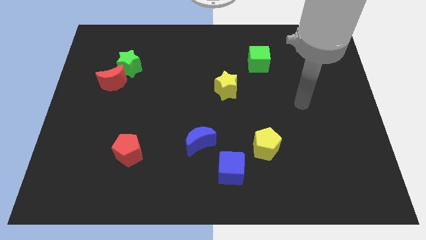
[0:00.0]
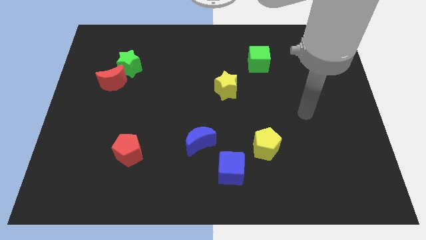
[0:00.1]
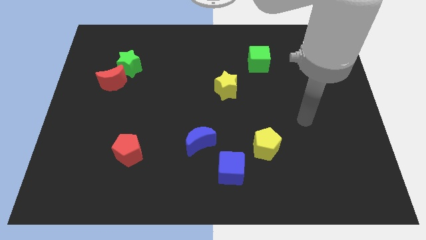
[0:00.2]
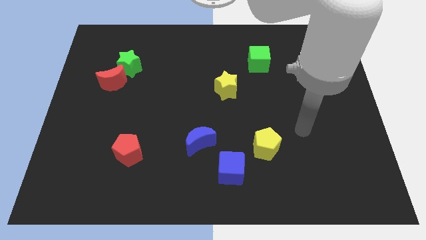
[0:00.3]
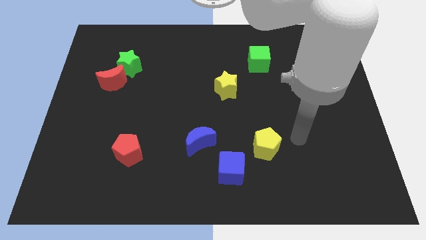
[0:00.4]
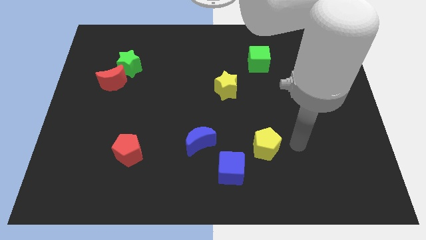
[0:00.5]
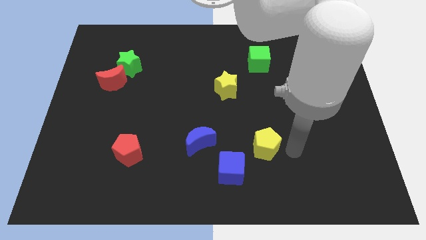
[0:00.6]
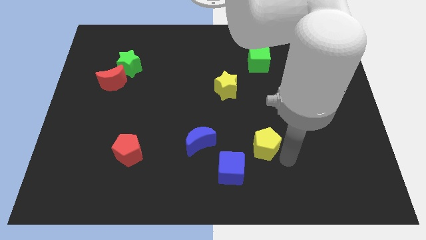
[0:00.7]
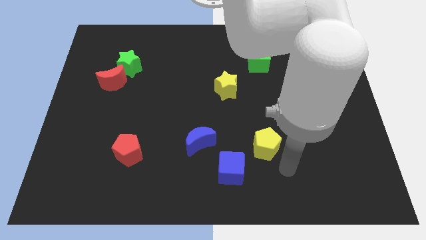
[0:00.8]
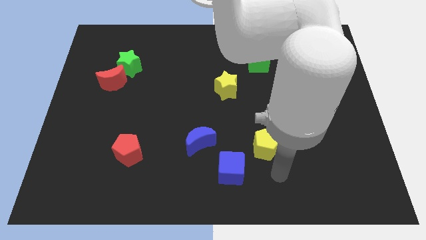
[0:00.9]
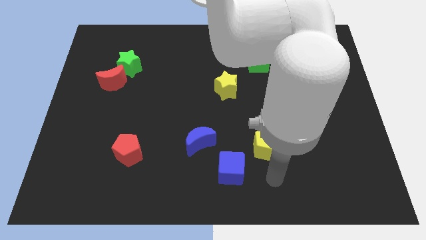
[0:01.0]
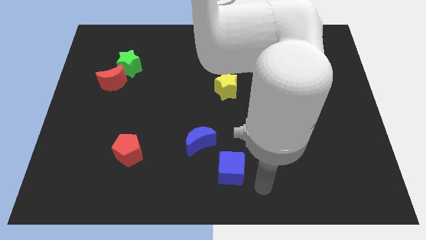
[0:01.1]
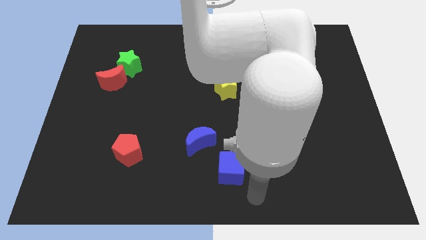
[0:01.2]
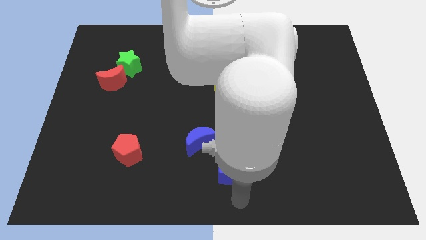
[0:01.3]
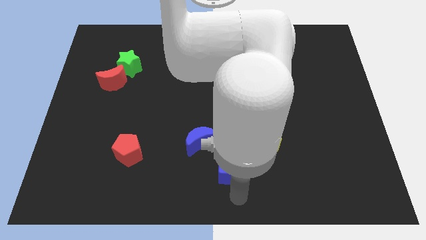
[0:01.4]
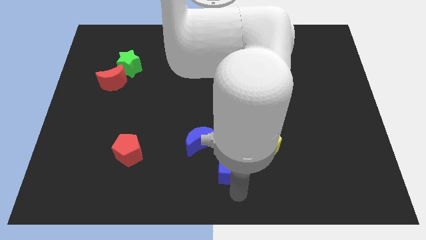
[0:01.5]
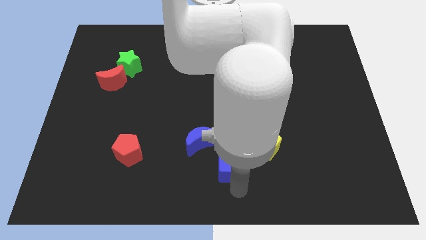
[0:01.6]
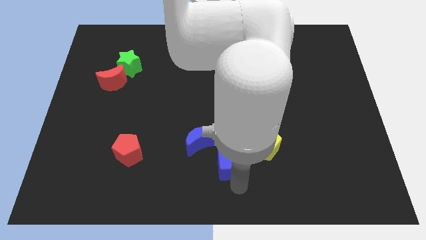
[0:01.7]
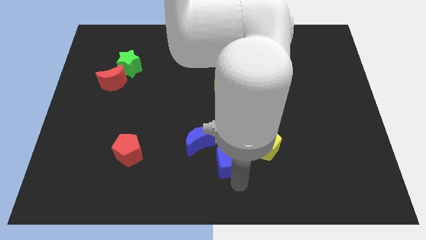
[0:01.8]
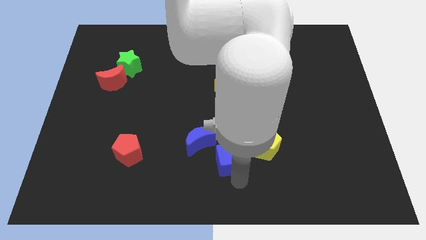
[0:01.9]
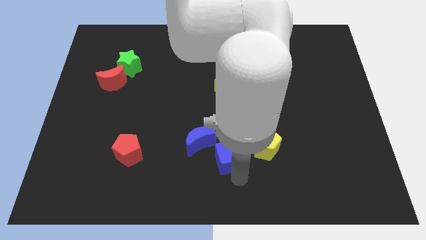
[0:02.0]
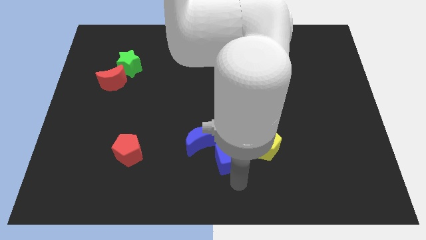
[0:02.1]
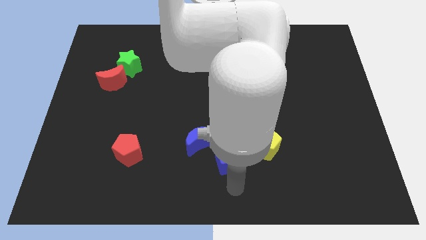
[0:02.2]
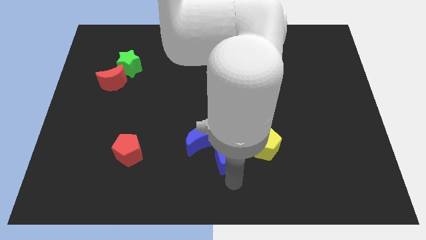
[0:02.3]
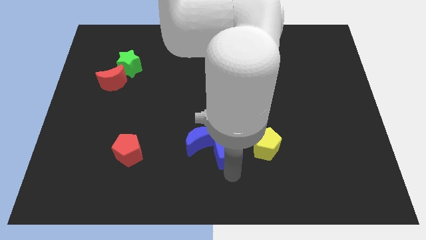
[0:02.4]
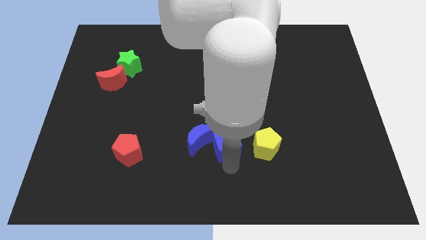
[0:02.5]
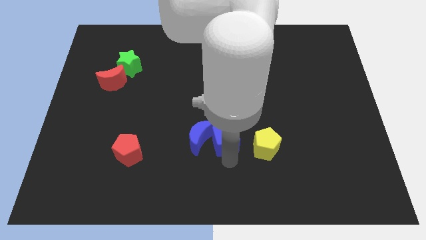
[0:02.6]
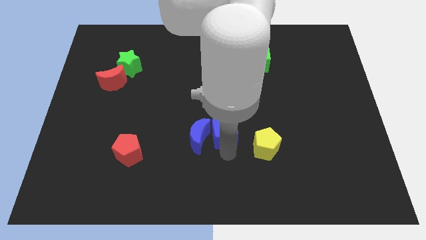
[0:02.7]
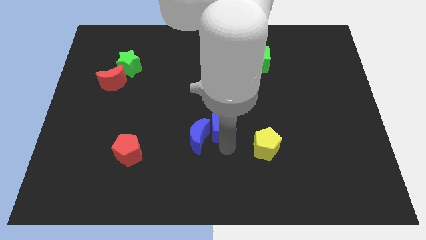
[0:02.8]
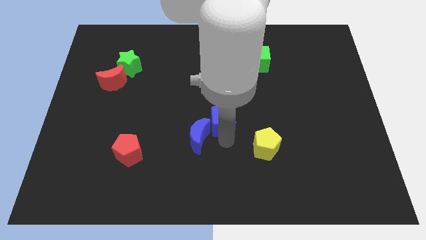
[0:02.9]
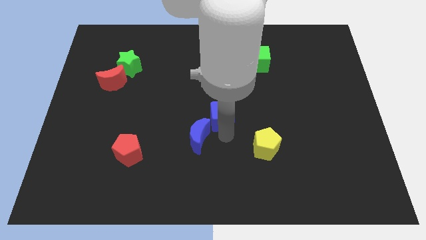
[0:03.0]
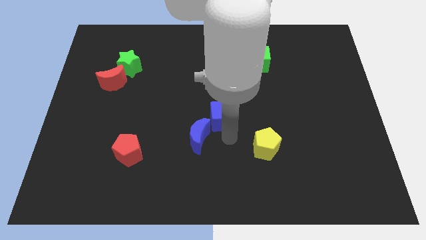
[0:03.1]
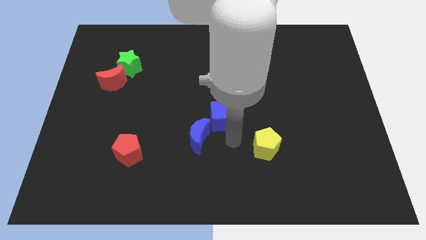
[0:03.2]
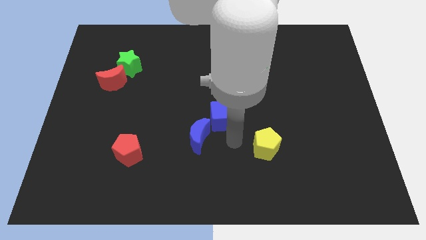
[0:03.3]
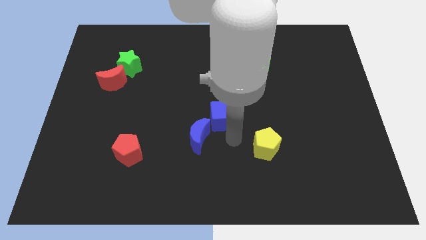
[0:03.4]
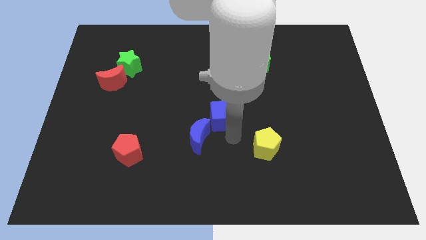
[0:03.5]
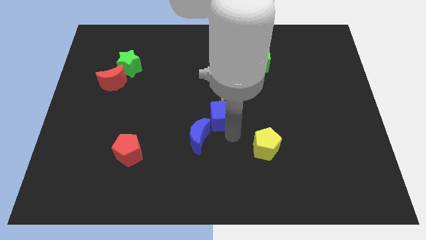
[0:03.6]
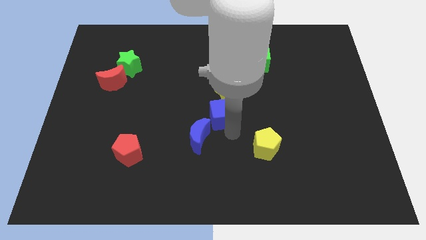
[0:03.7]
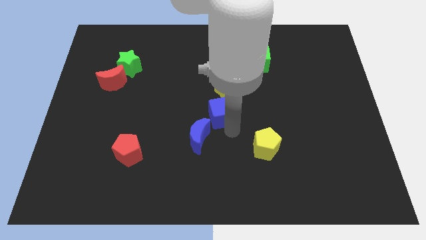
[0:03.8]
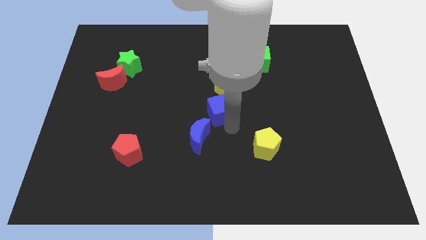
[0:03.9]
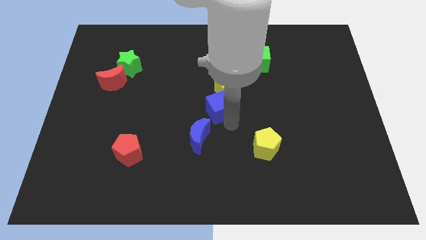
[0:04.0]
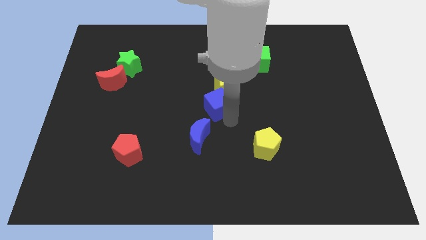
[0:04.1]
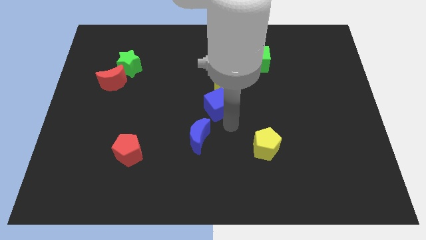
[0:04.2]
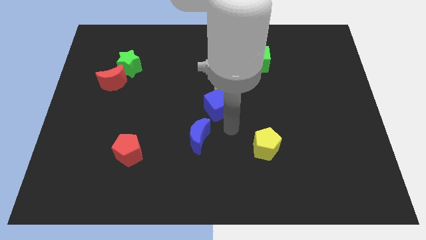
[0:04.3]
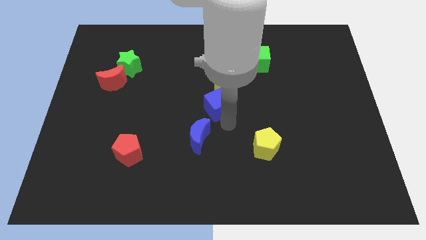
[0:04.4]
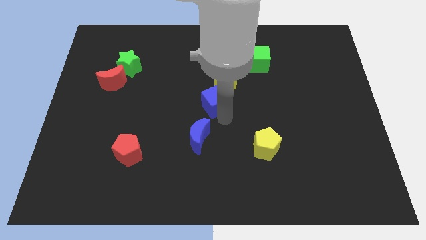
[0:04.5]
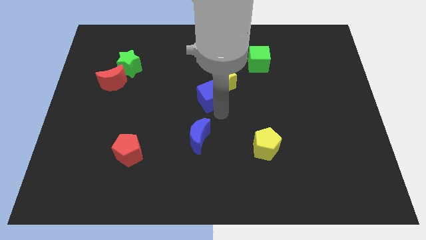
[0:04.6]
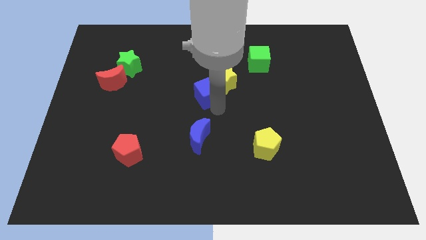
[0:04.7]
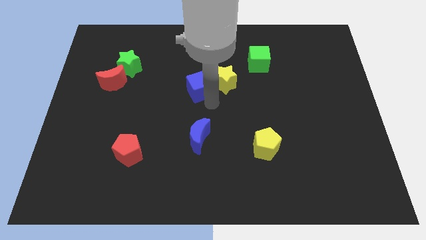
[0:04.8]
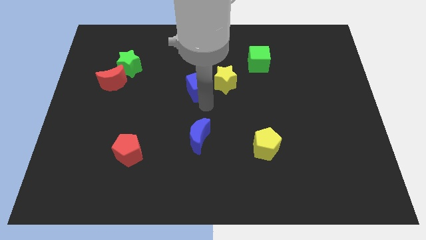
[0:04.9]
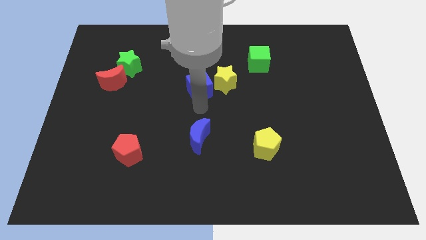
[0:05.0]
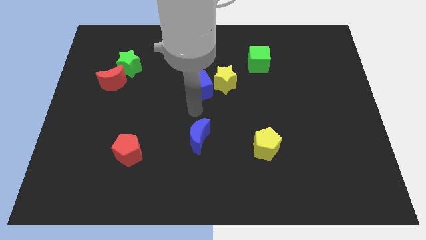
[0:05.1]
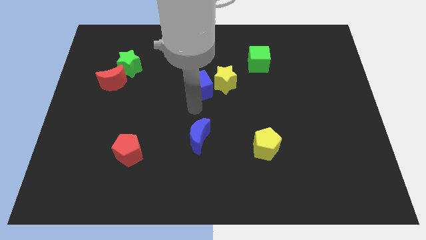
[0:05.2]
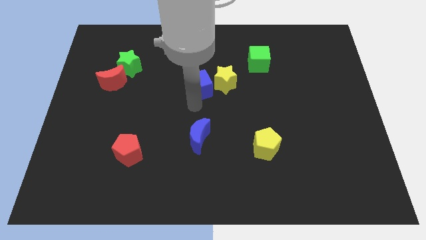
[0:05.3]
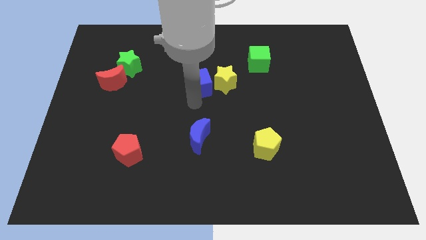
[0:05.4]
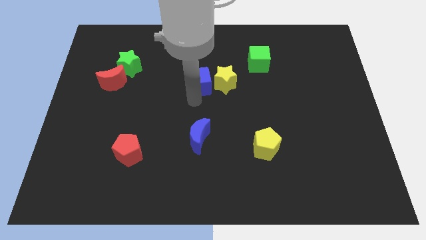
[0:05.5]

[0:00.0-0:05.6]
push the blue cube to the top left of the yellow star

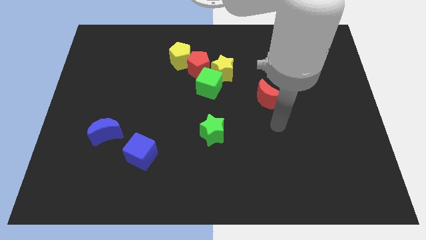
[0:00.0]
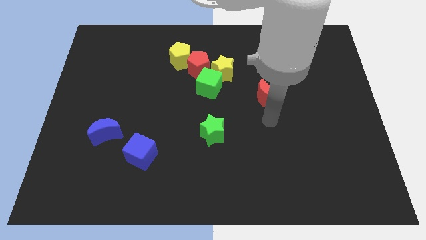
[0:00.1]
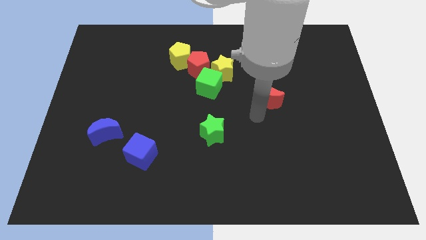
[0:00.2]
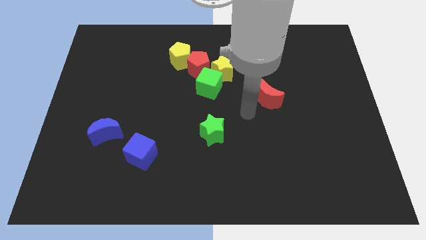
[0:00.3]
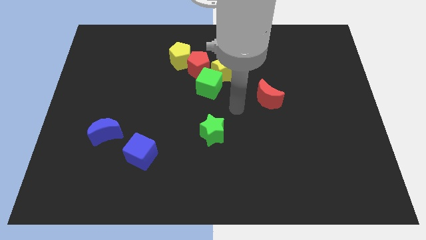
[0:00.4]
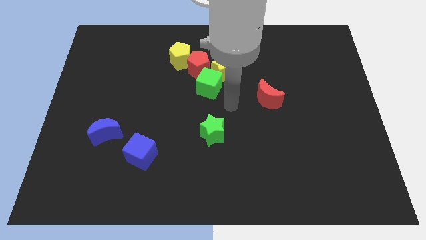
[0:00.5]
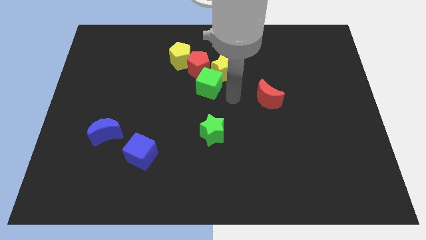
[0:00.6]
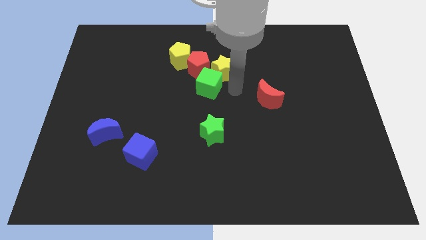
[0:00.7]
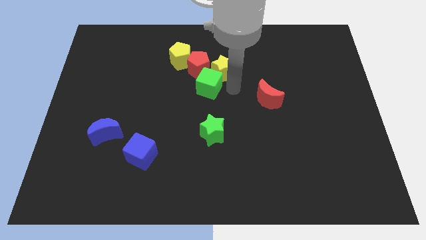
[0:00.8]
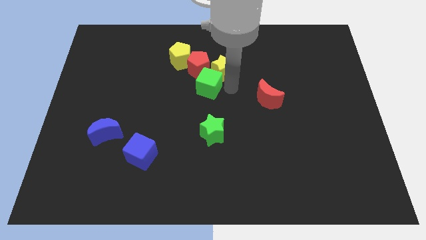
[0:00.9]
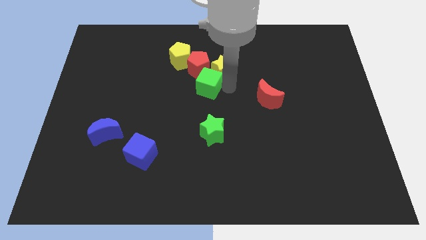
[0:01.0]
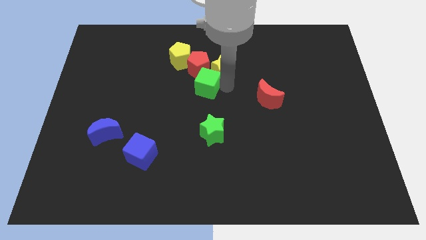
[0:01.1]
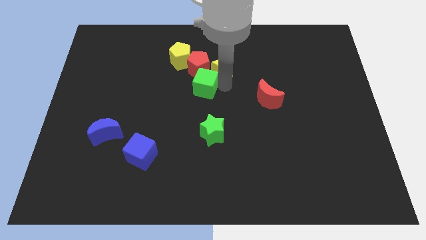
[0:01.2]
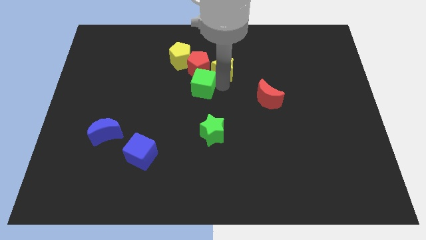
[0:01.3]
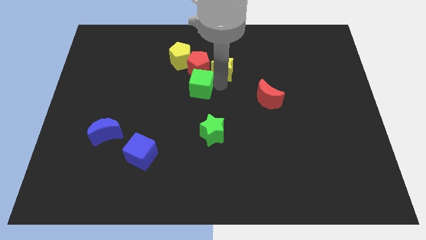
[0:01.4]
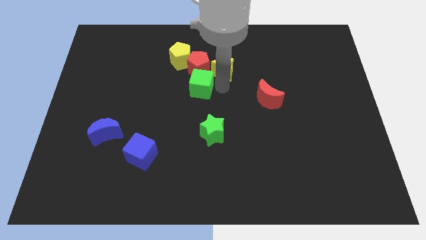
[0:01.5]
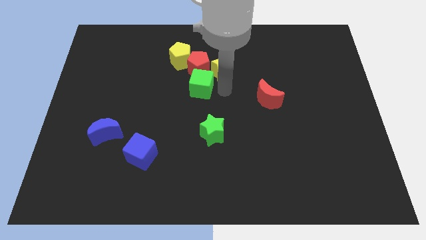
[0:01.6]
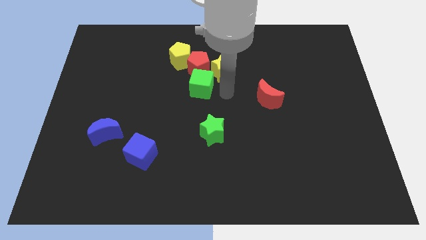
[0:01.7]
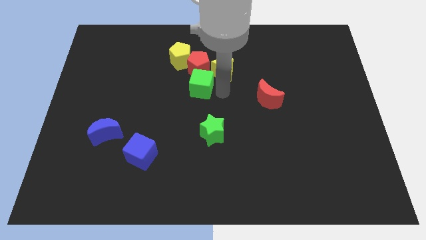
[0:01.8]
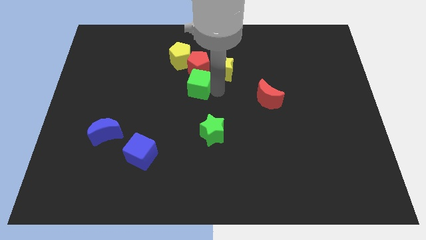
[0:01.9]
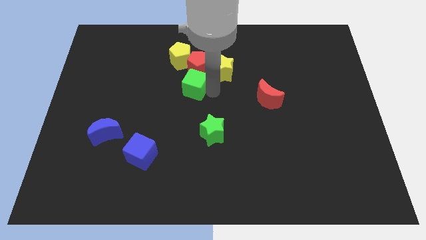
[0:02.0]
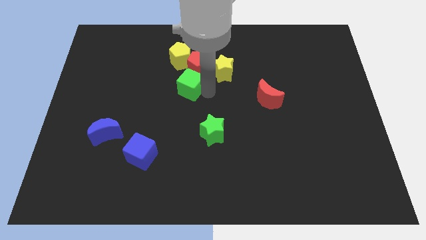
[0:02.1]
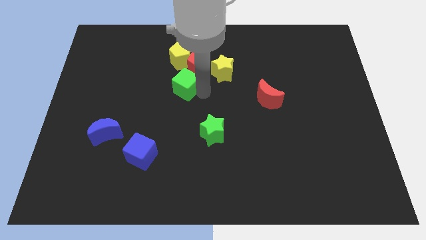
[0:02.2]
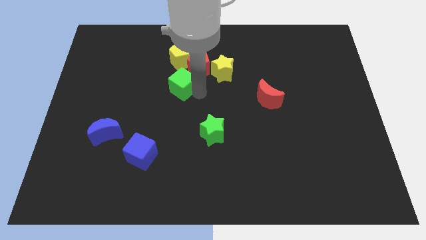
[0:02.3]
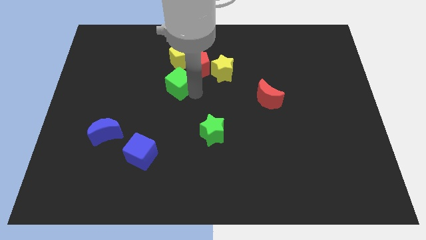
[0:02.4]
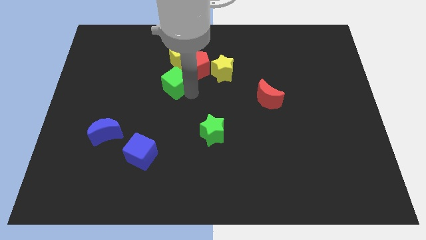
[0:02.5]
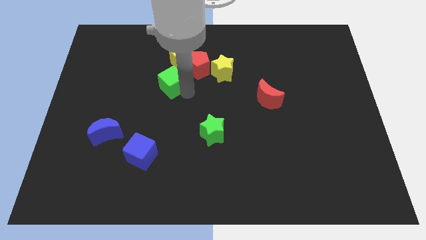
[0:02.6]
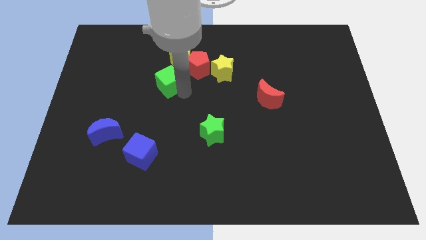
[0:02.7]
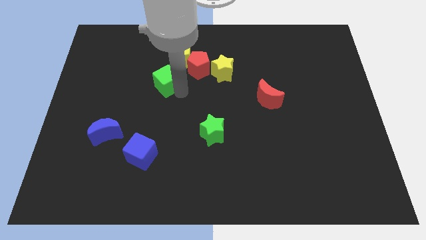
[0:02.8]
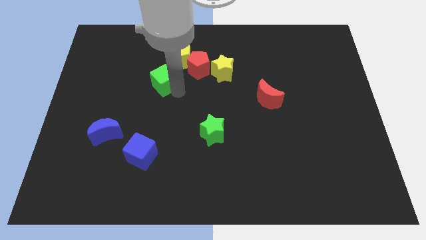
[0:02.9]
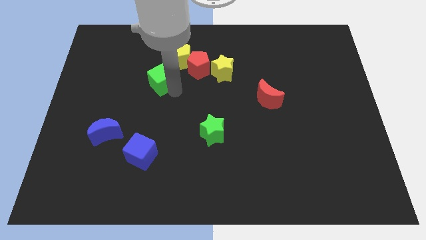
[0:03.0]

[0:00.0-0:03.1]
put the green cube just left of the red pentagon
